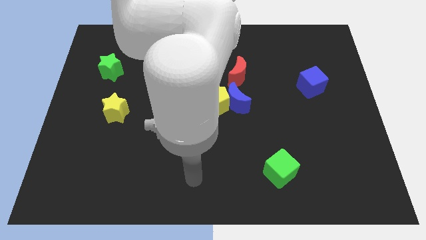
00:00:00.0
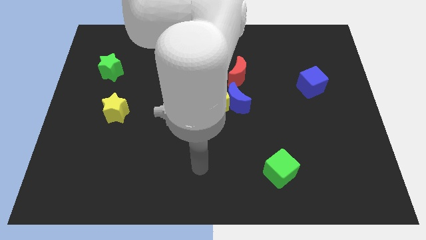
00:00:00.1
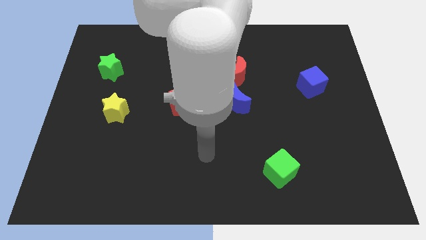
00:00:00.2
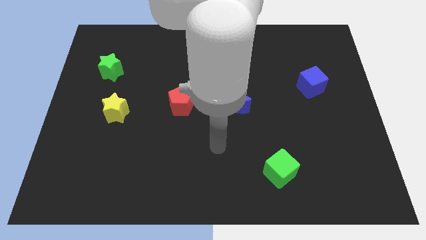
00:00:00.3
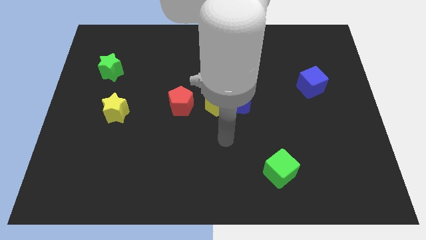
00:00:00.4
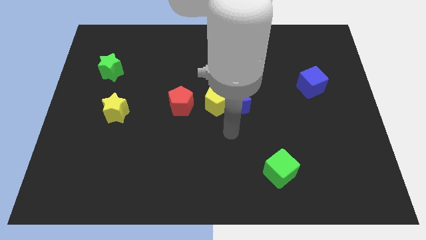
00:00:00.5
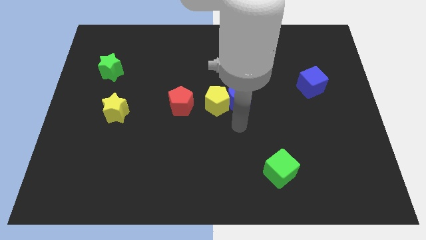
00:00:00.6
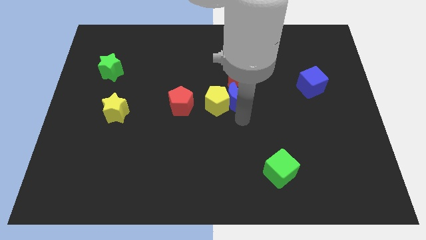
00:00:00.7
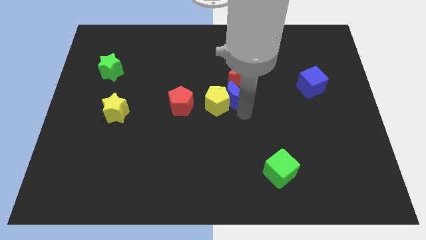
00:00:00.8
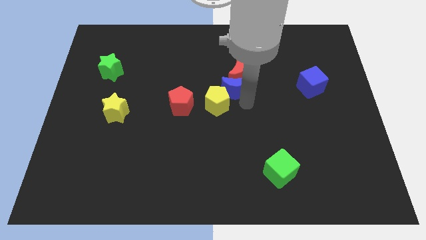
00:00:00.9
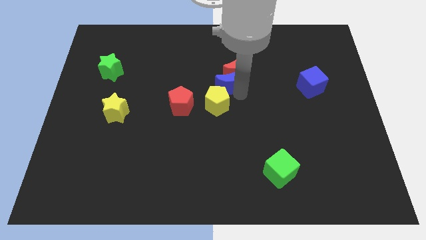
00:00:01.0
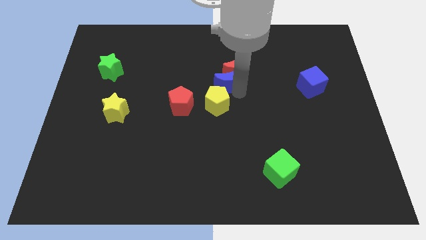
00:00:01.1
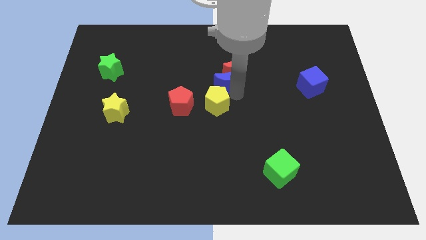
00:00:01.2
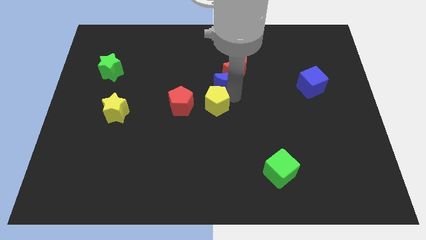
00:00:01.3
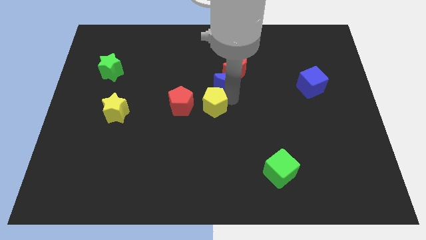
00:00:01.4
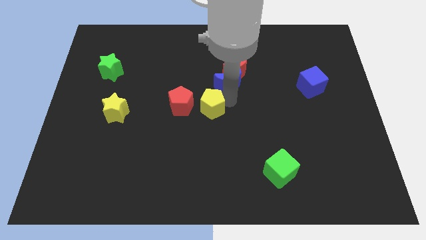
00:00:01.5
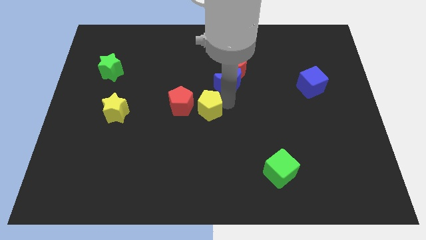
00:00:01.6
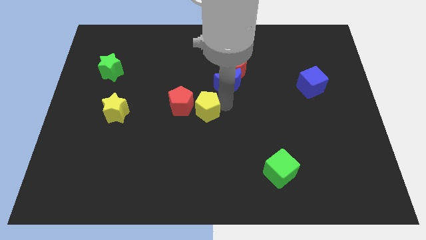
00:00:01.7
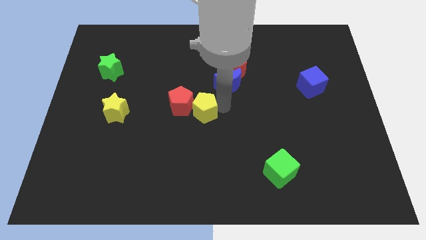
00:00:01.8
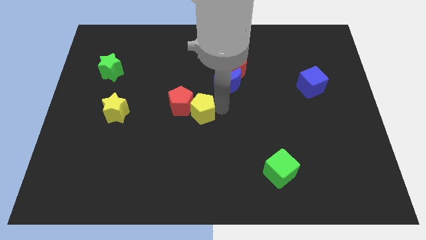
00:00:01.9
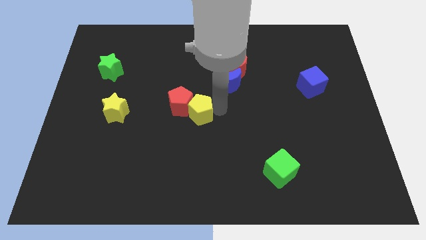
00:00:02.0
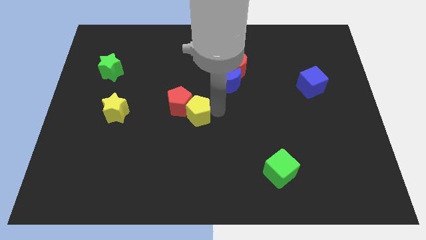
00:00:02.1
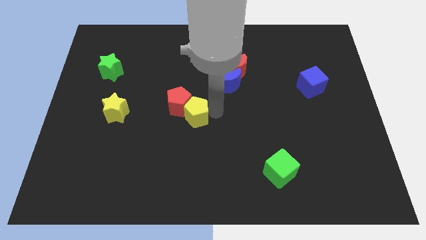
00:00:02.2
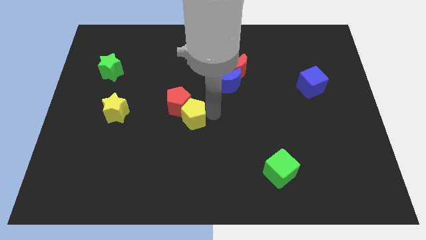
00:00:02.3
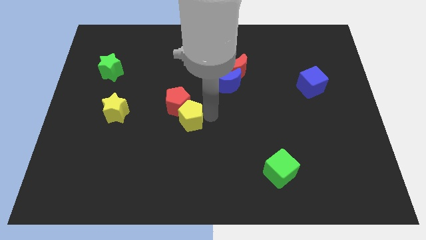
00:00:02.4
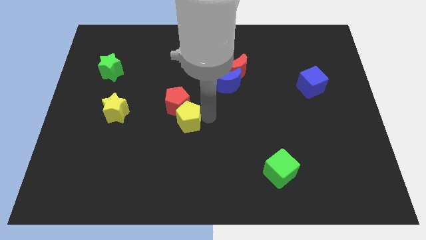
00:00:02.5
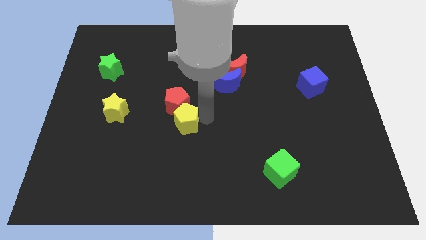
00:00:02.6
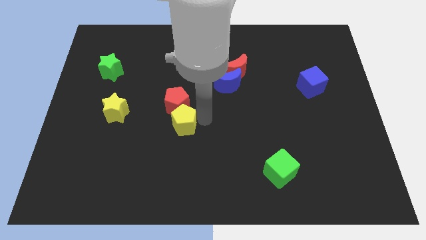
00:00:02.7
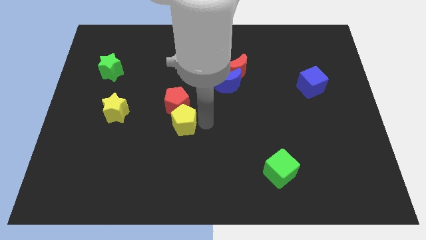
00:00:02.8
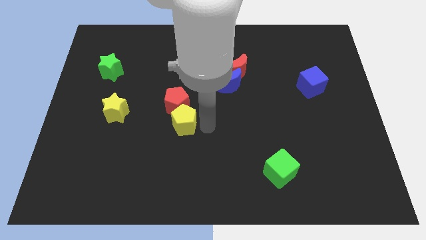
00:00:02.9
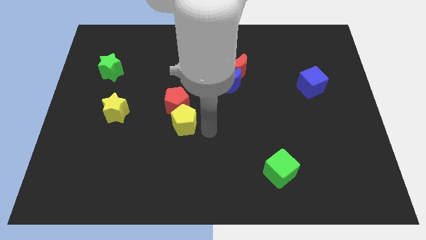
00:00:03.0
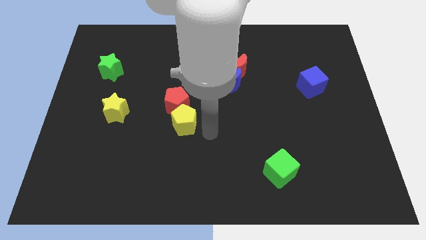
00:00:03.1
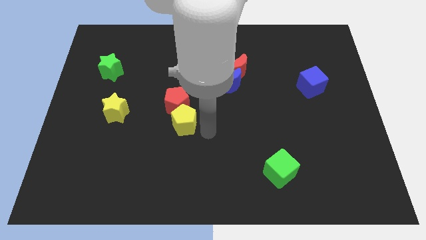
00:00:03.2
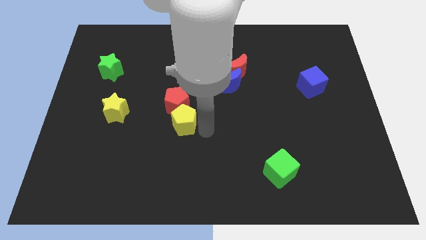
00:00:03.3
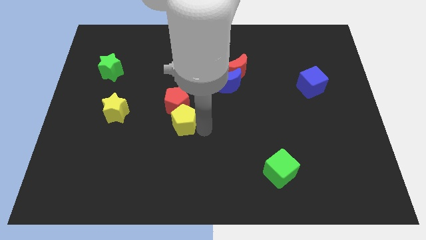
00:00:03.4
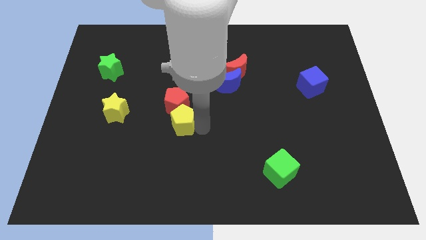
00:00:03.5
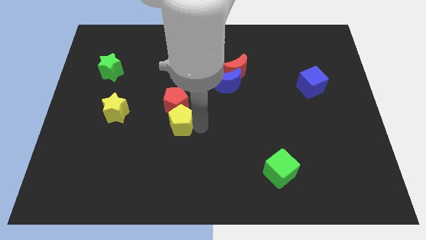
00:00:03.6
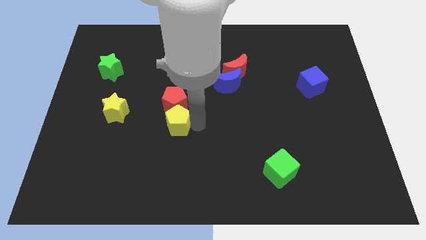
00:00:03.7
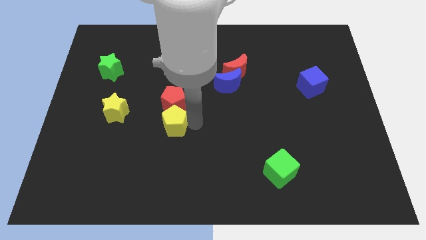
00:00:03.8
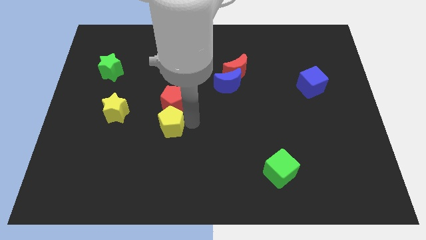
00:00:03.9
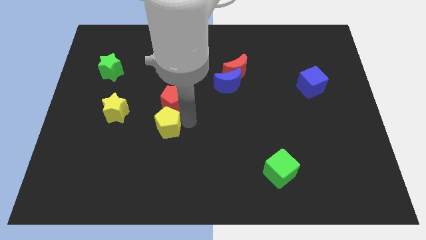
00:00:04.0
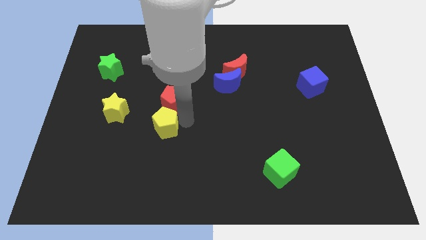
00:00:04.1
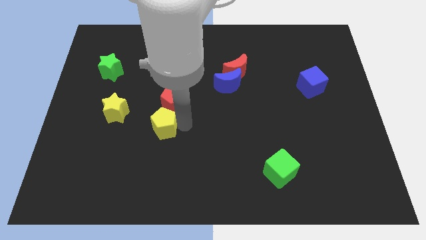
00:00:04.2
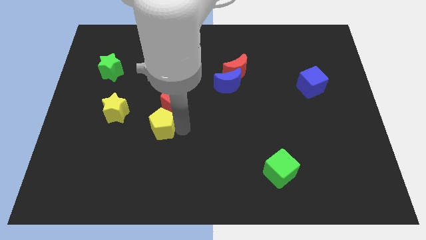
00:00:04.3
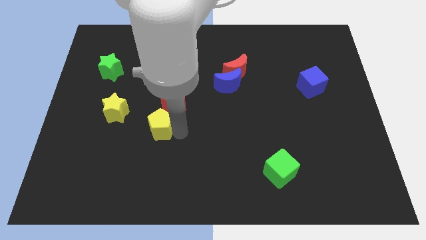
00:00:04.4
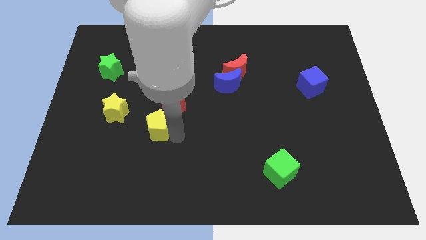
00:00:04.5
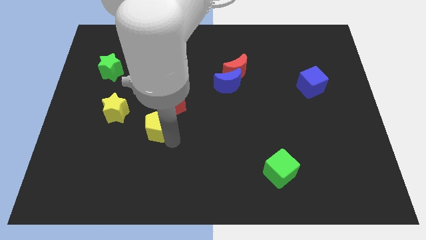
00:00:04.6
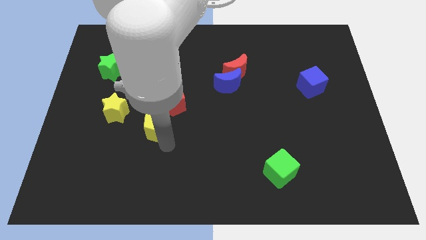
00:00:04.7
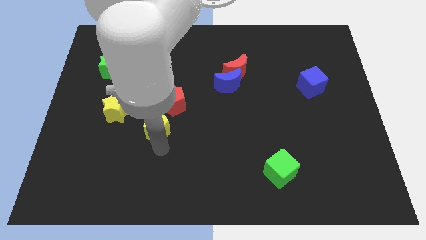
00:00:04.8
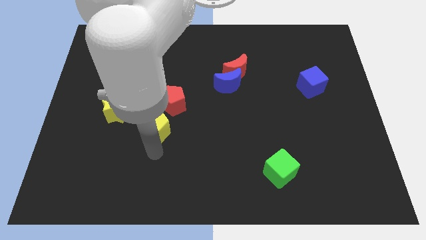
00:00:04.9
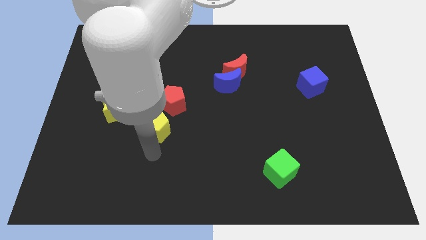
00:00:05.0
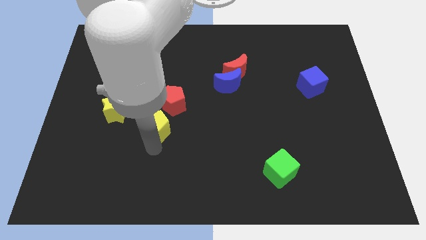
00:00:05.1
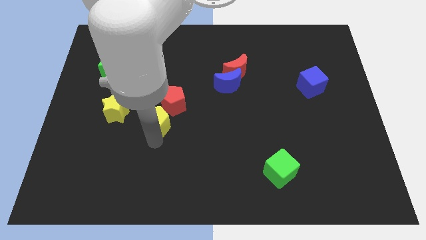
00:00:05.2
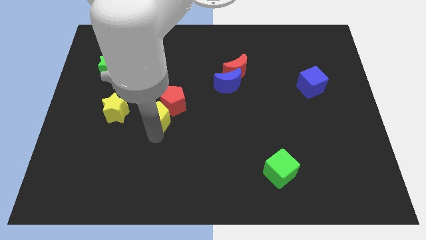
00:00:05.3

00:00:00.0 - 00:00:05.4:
move the yellow pentagon to the left side of the red pentagon

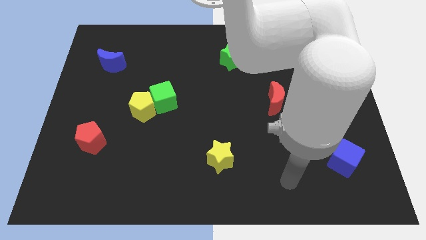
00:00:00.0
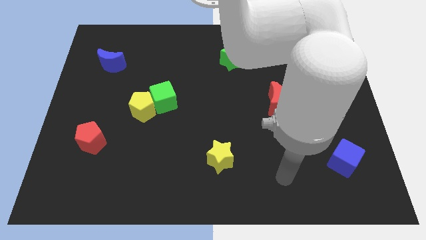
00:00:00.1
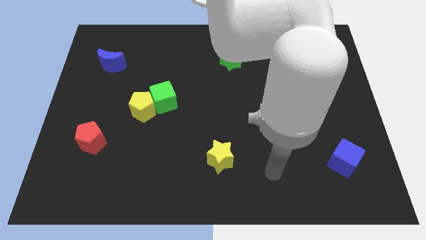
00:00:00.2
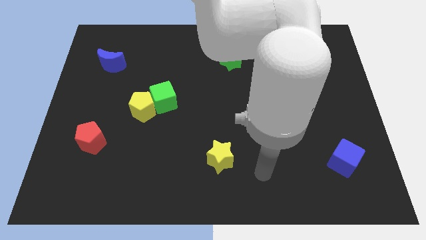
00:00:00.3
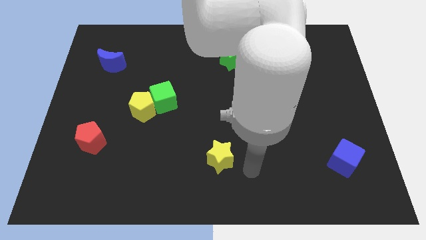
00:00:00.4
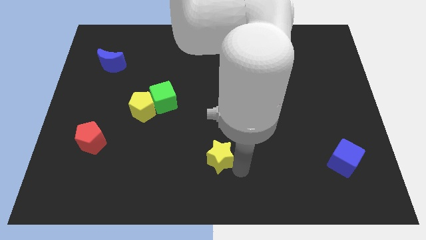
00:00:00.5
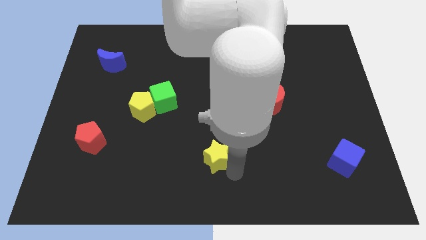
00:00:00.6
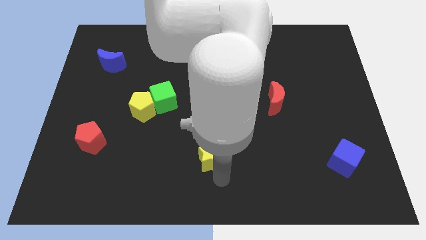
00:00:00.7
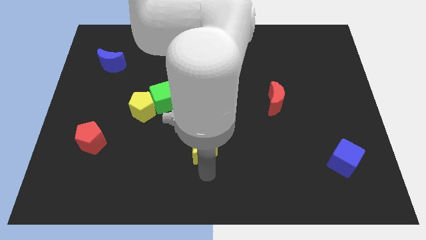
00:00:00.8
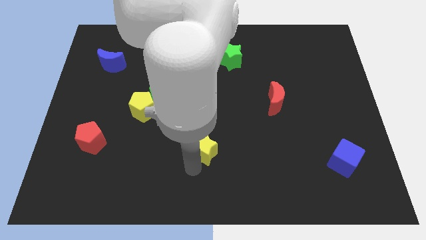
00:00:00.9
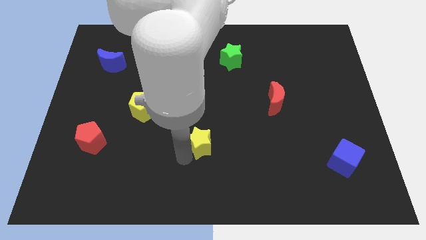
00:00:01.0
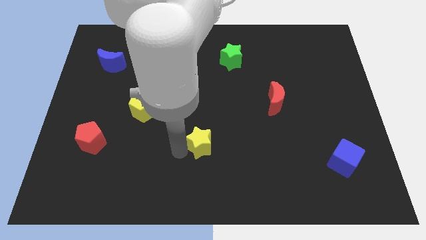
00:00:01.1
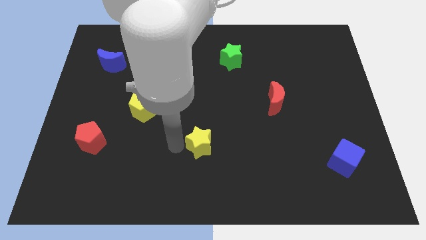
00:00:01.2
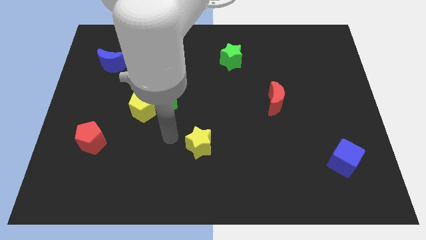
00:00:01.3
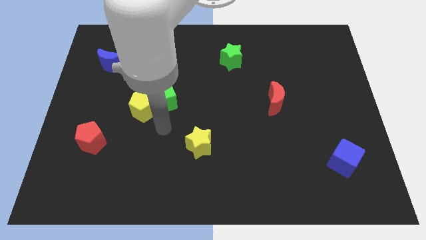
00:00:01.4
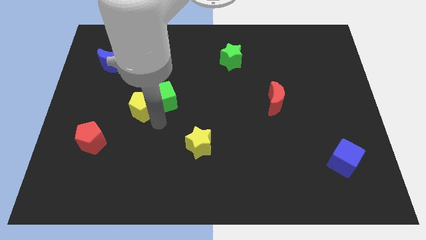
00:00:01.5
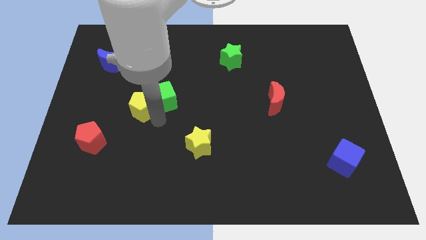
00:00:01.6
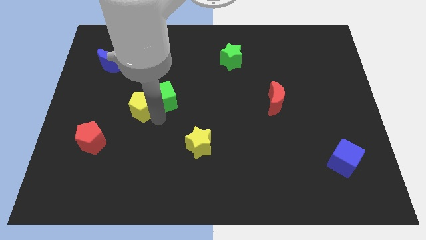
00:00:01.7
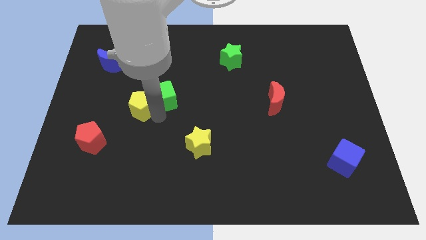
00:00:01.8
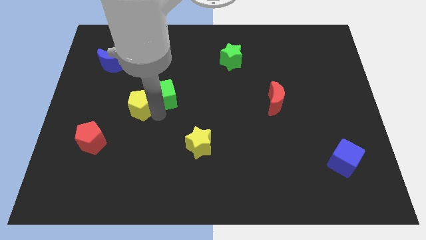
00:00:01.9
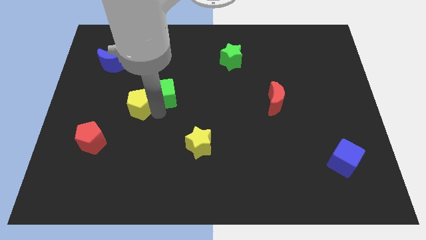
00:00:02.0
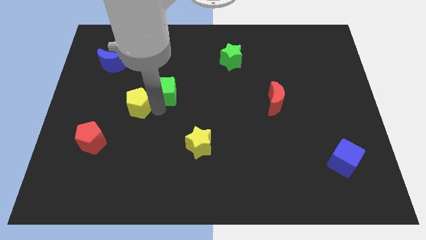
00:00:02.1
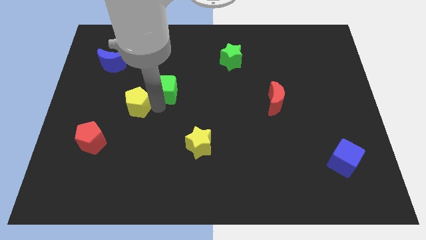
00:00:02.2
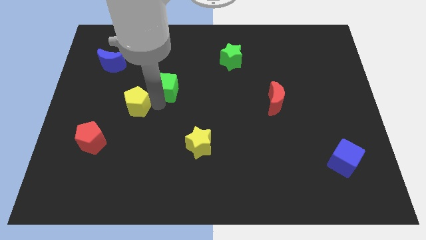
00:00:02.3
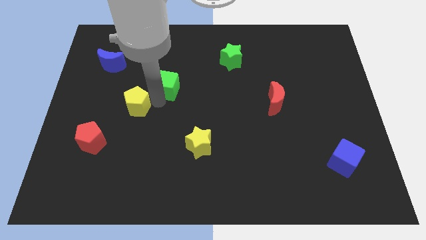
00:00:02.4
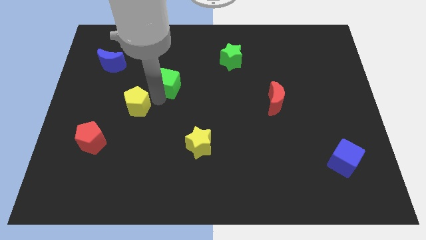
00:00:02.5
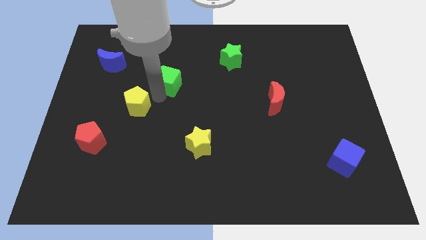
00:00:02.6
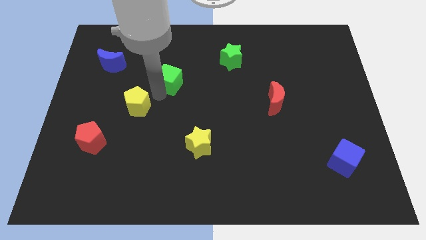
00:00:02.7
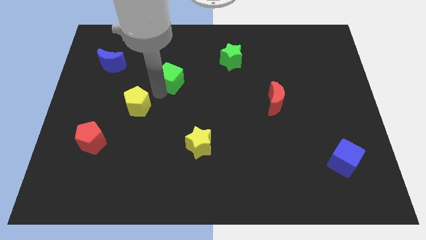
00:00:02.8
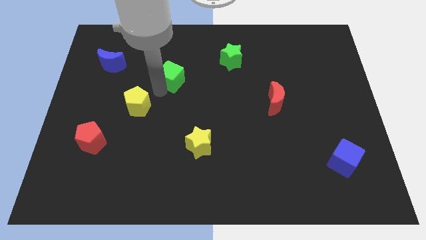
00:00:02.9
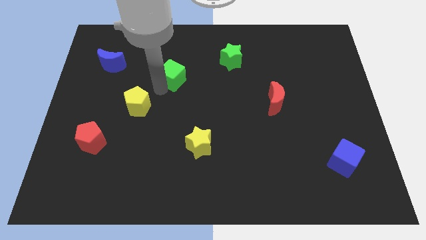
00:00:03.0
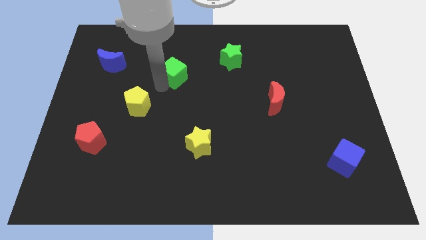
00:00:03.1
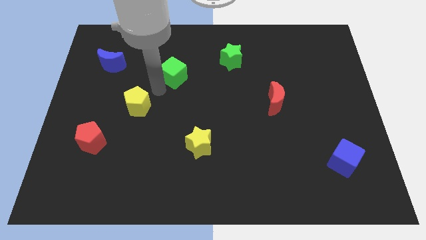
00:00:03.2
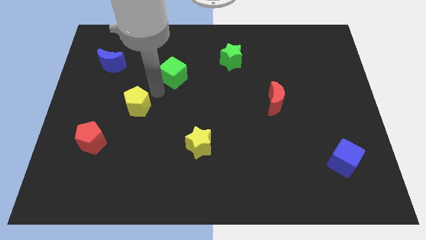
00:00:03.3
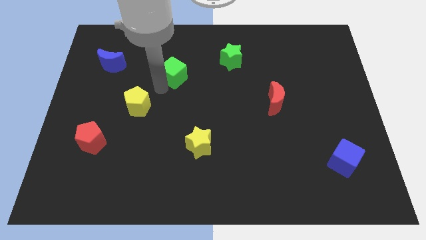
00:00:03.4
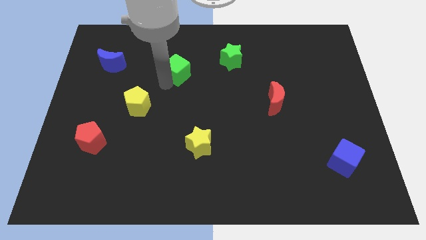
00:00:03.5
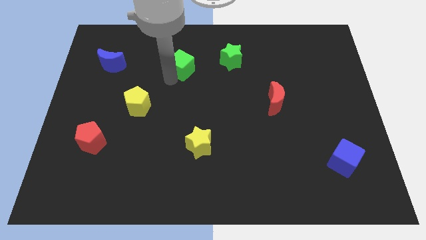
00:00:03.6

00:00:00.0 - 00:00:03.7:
move the green cube left of the green star
